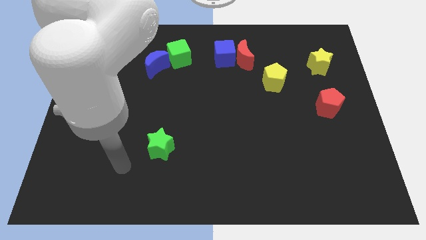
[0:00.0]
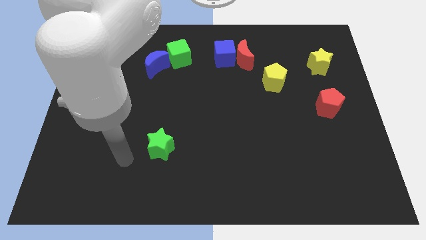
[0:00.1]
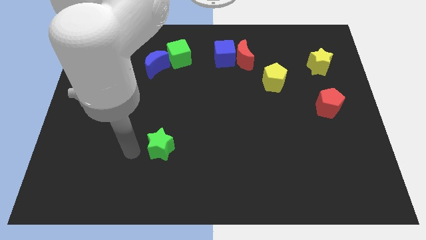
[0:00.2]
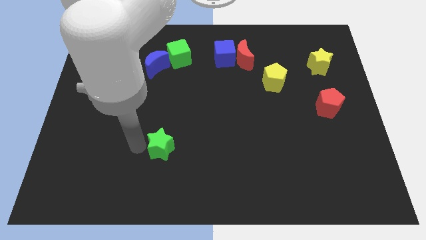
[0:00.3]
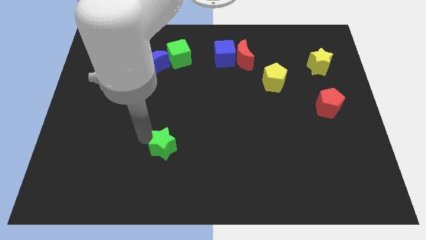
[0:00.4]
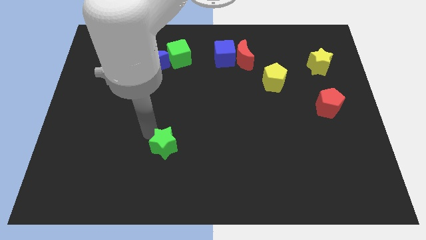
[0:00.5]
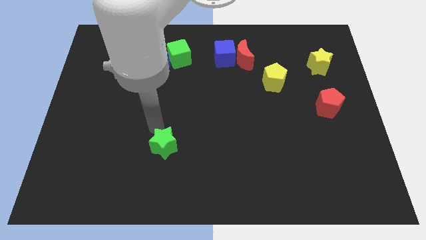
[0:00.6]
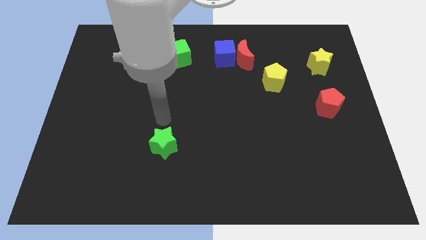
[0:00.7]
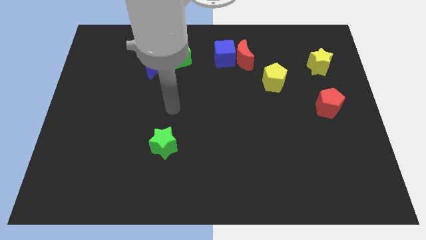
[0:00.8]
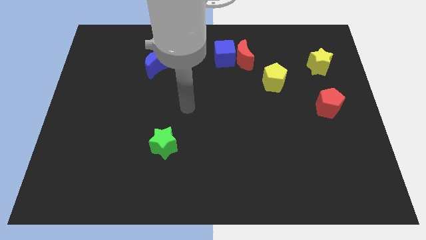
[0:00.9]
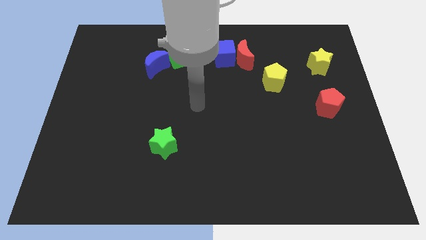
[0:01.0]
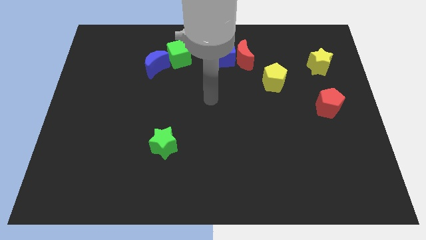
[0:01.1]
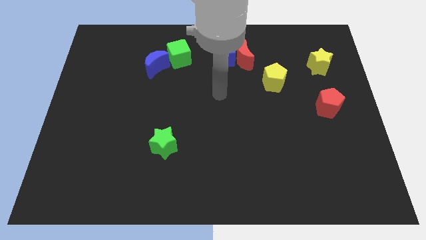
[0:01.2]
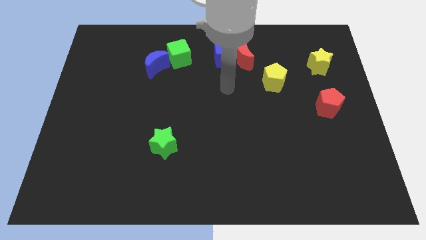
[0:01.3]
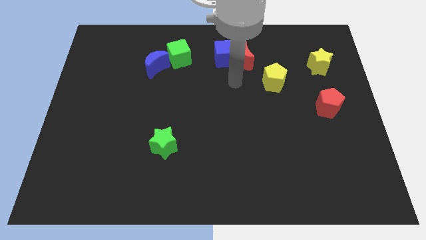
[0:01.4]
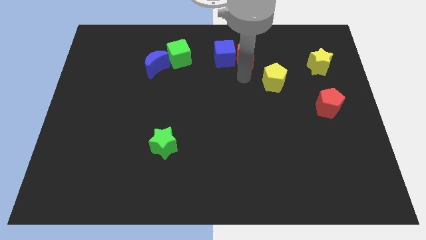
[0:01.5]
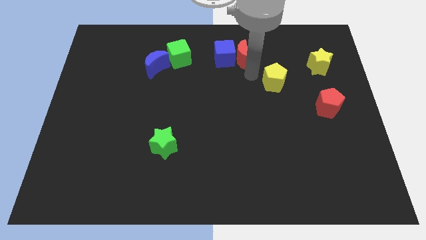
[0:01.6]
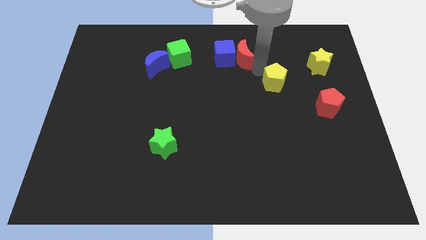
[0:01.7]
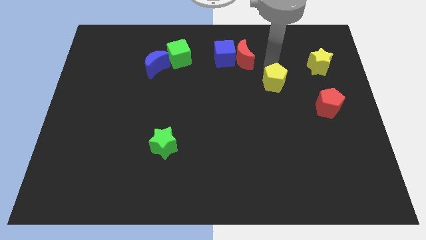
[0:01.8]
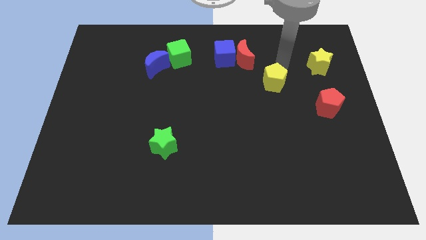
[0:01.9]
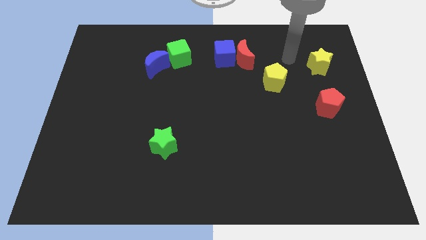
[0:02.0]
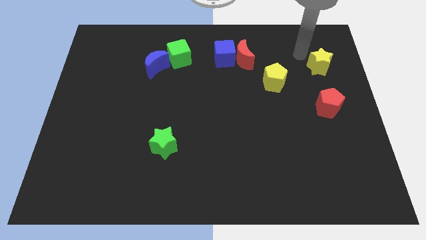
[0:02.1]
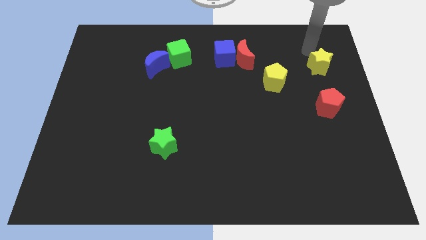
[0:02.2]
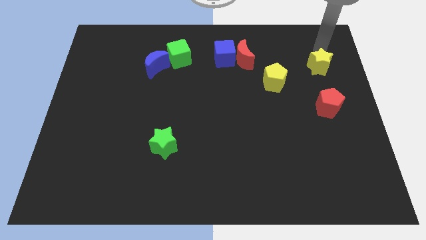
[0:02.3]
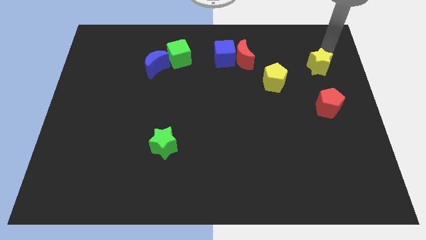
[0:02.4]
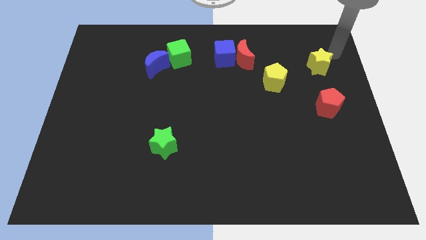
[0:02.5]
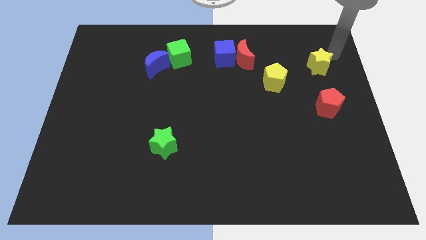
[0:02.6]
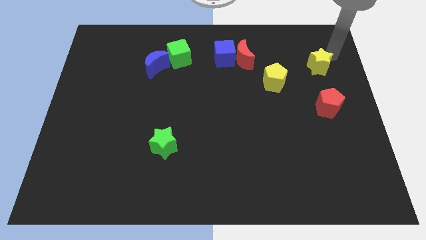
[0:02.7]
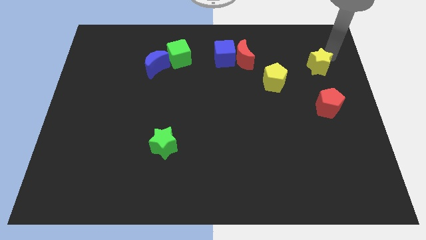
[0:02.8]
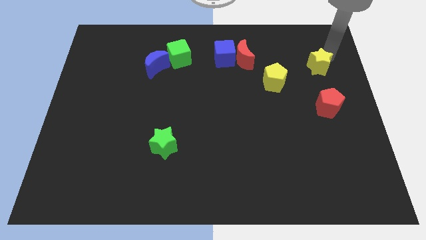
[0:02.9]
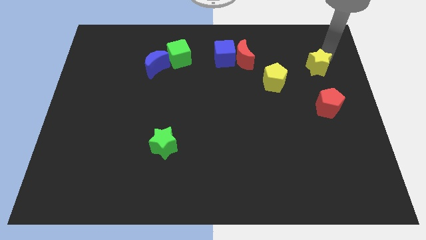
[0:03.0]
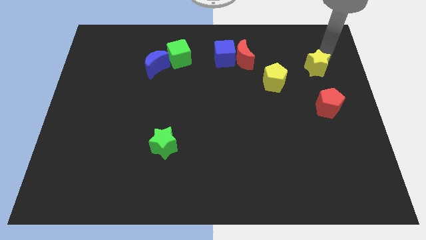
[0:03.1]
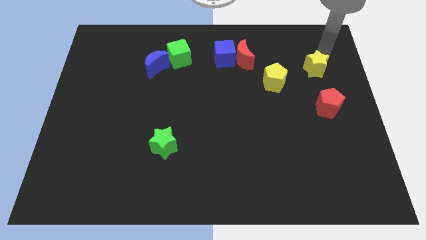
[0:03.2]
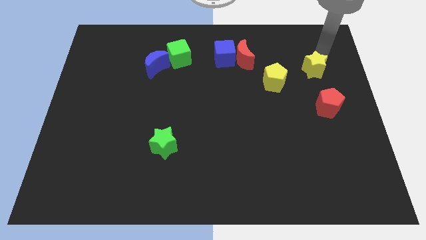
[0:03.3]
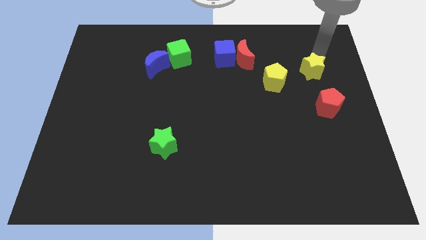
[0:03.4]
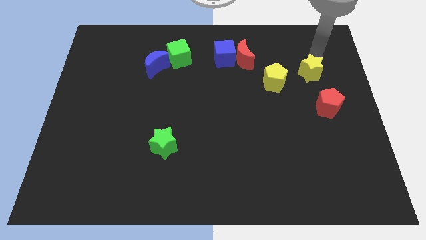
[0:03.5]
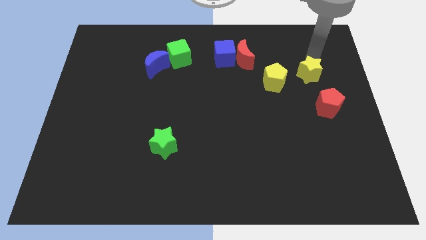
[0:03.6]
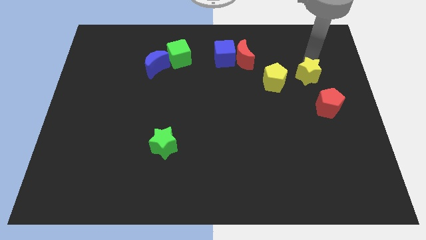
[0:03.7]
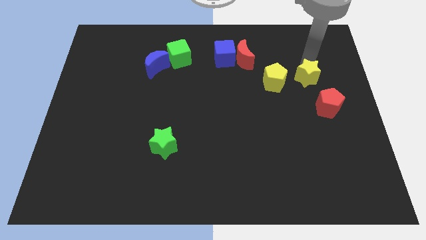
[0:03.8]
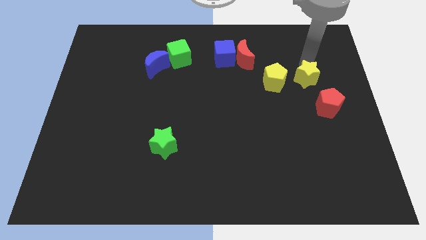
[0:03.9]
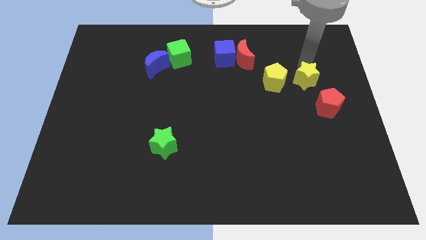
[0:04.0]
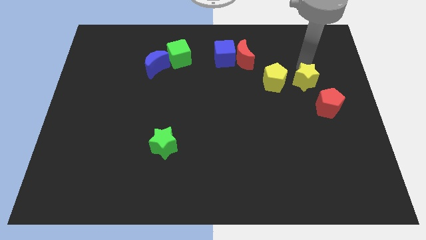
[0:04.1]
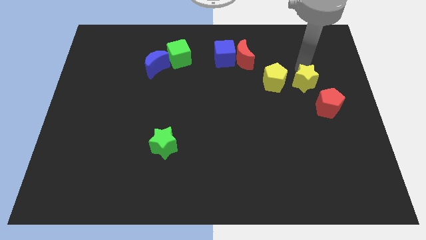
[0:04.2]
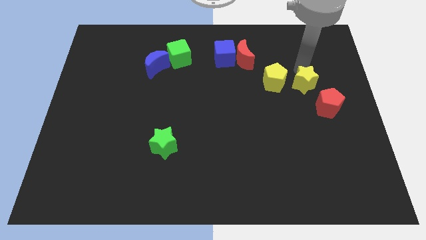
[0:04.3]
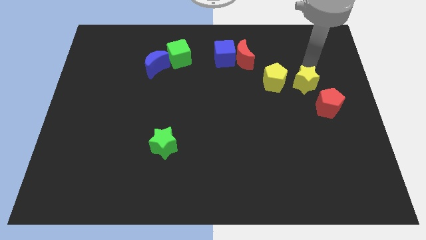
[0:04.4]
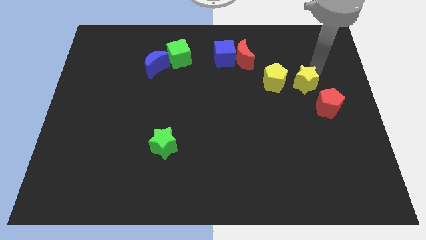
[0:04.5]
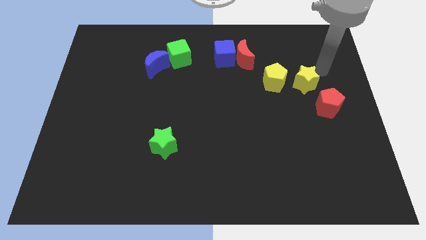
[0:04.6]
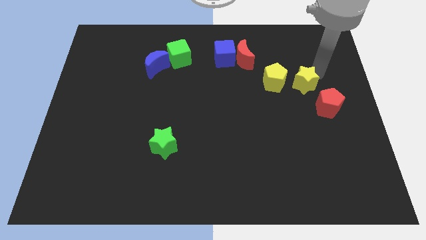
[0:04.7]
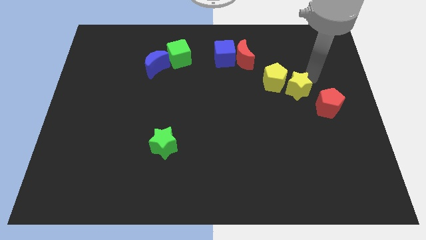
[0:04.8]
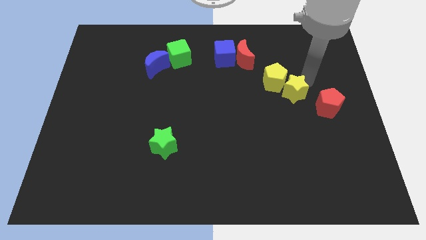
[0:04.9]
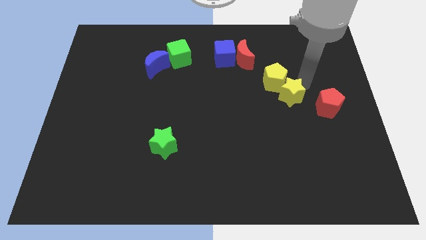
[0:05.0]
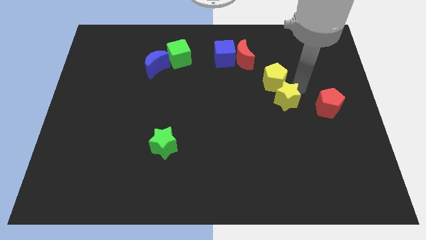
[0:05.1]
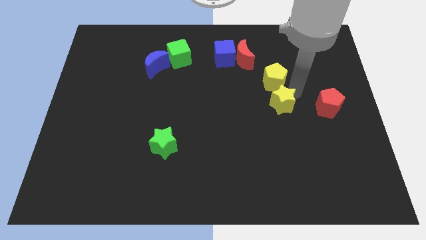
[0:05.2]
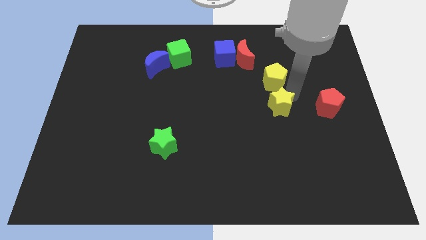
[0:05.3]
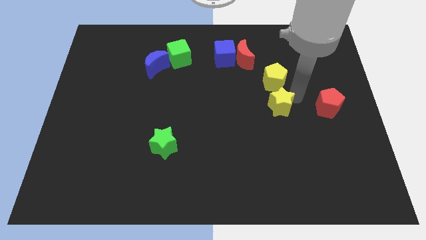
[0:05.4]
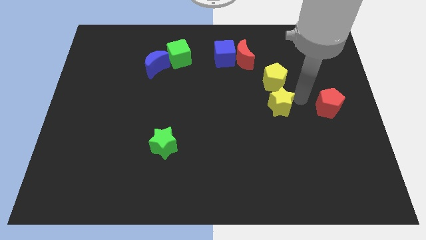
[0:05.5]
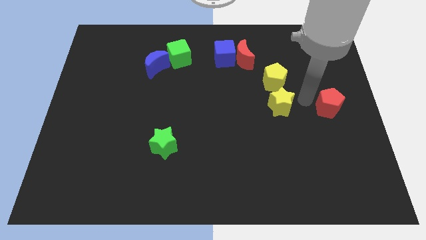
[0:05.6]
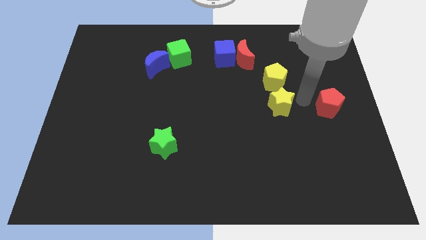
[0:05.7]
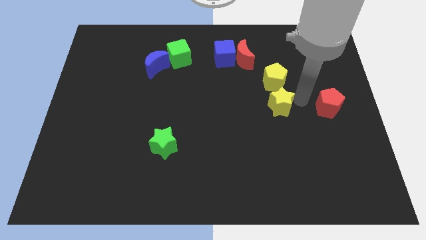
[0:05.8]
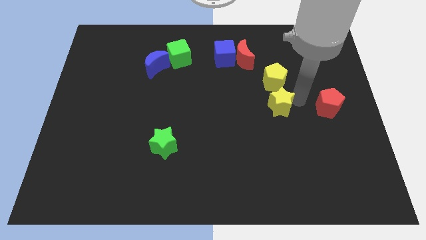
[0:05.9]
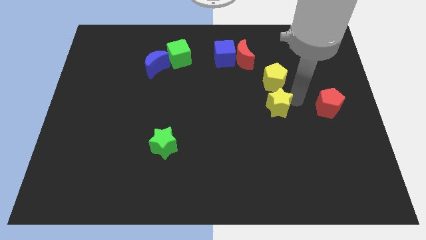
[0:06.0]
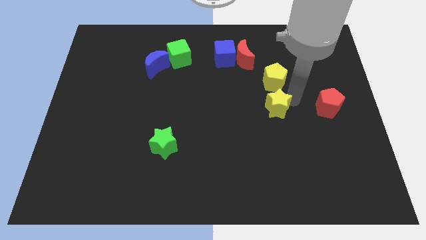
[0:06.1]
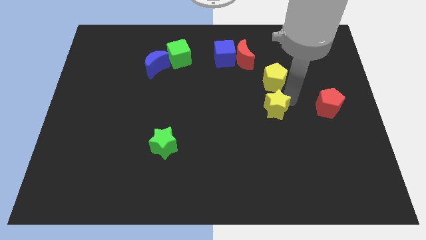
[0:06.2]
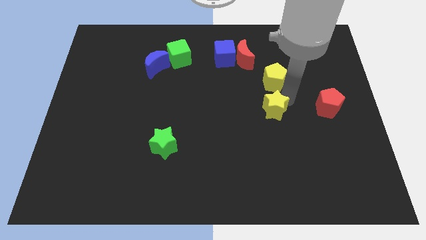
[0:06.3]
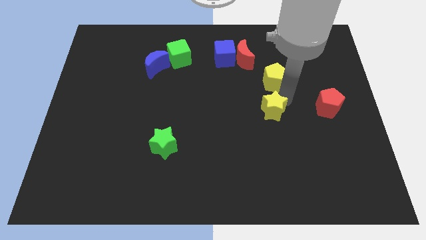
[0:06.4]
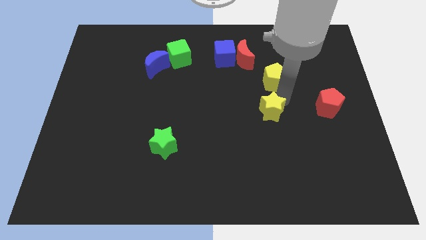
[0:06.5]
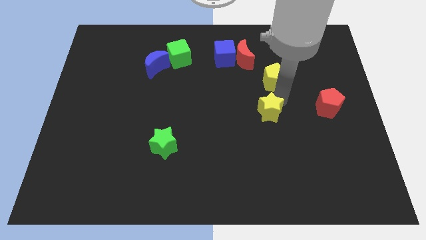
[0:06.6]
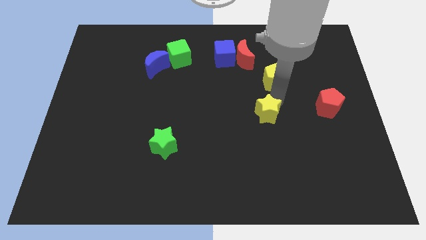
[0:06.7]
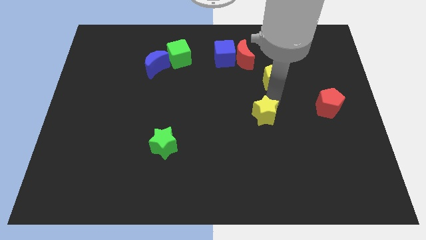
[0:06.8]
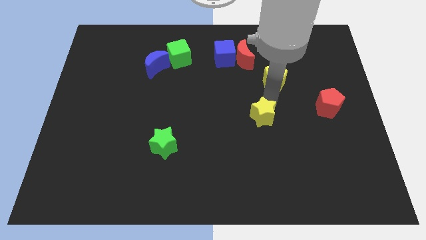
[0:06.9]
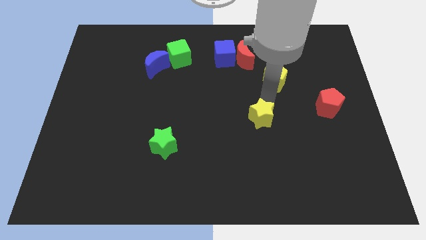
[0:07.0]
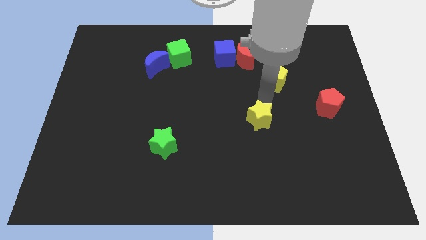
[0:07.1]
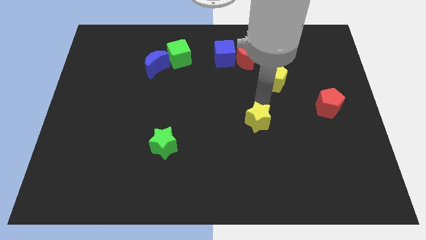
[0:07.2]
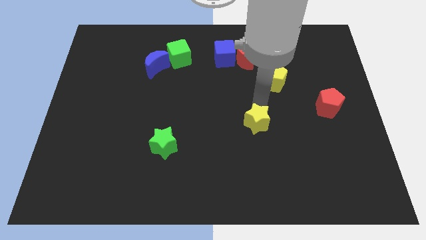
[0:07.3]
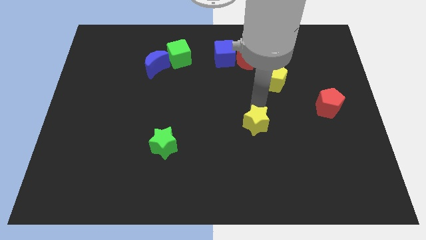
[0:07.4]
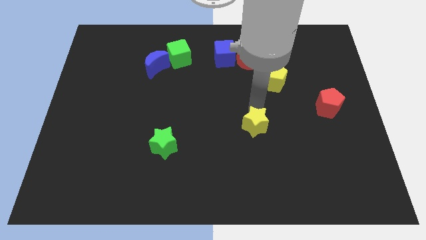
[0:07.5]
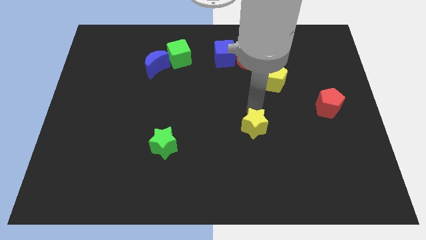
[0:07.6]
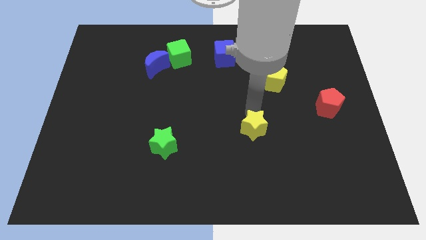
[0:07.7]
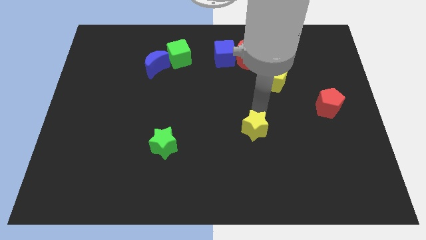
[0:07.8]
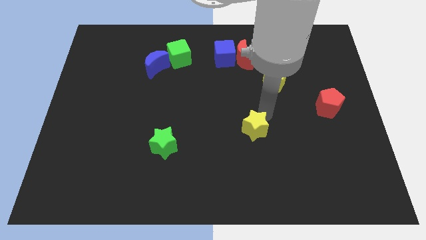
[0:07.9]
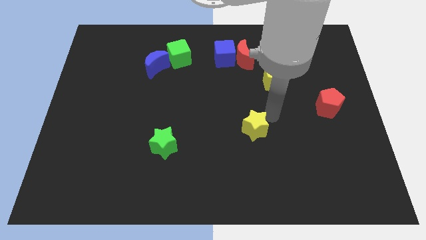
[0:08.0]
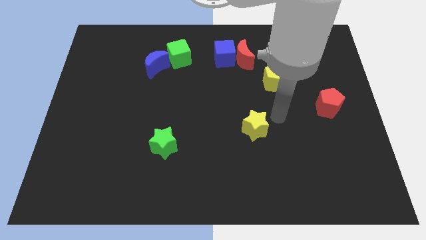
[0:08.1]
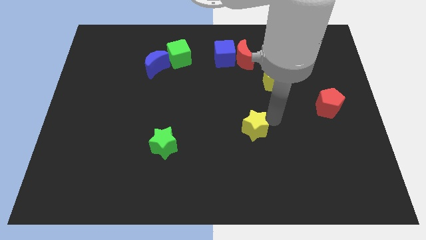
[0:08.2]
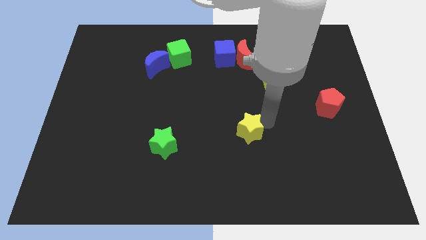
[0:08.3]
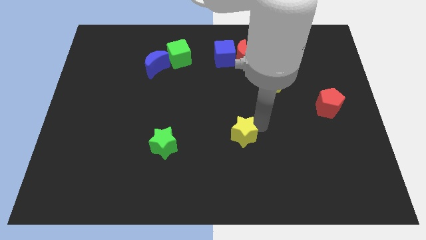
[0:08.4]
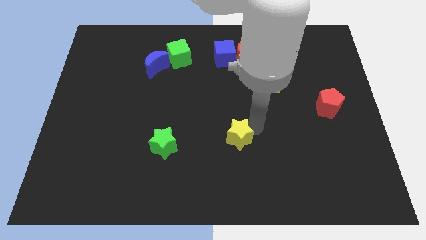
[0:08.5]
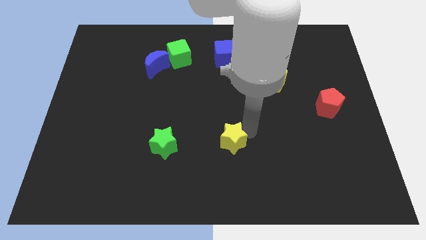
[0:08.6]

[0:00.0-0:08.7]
slide the yellow star to the right of the green star
